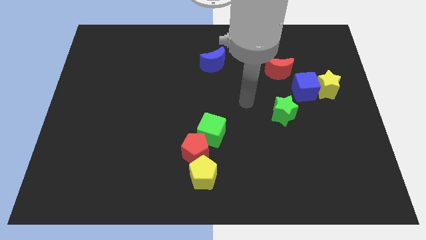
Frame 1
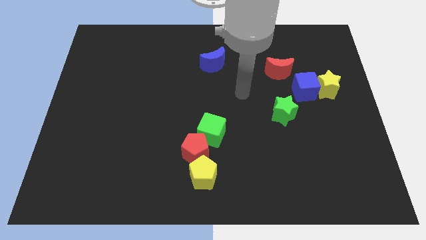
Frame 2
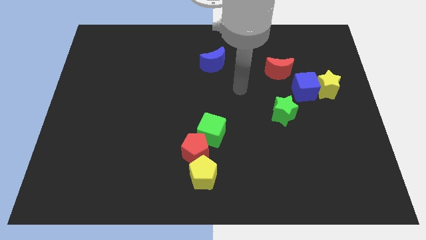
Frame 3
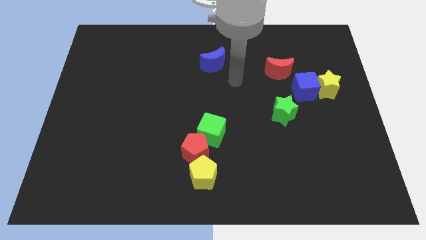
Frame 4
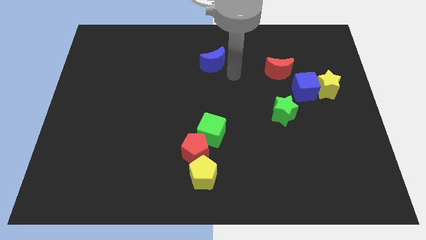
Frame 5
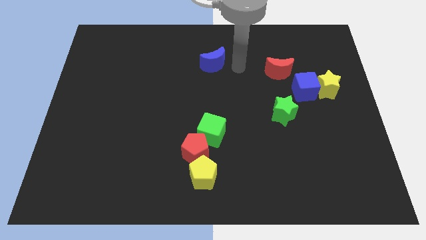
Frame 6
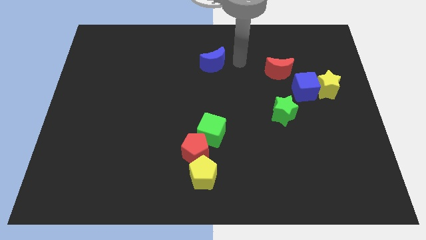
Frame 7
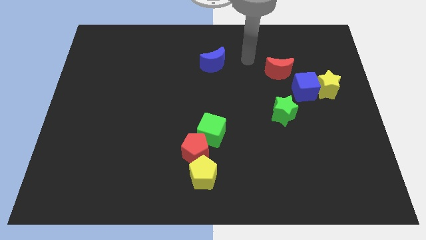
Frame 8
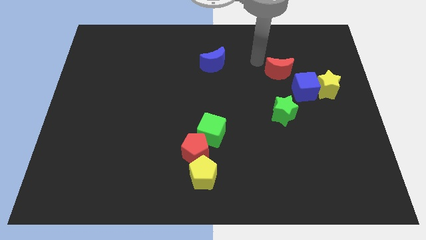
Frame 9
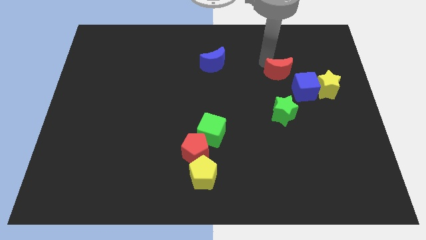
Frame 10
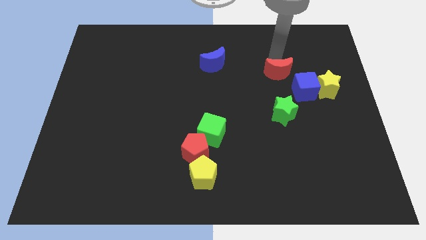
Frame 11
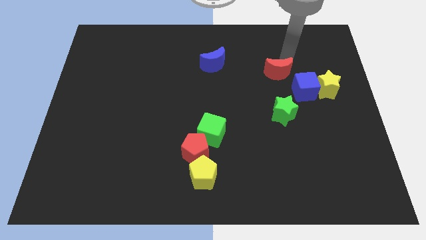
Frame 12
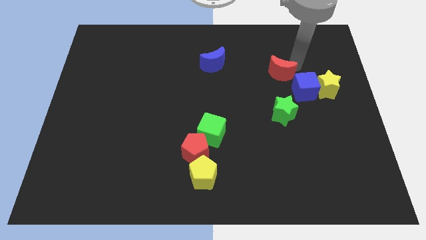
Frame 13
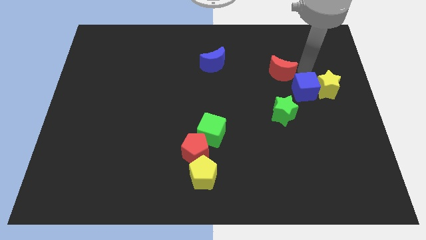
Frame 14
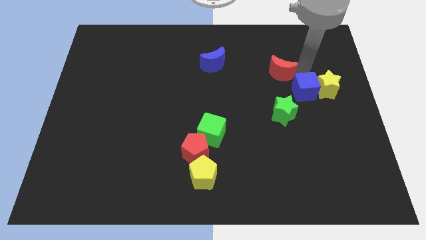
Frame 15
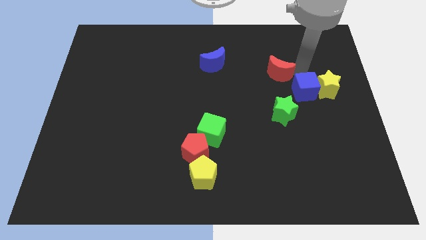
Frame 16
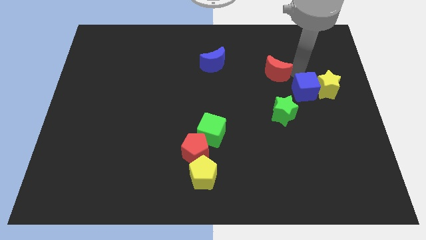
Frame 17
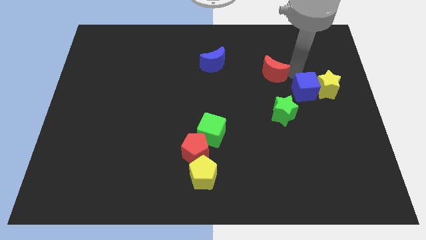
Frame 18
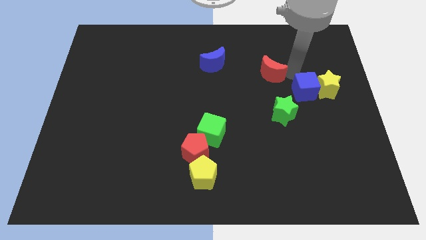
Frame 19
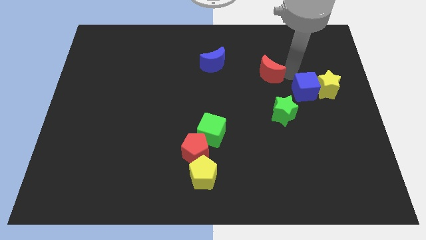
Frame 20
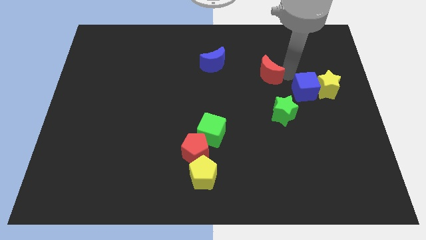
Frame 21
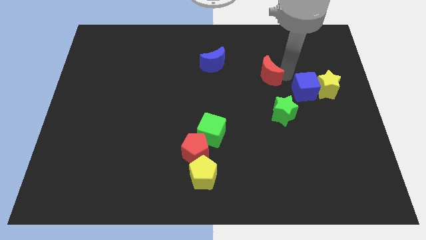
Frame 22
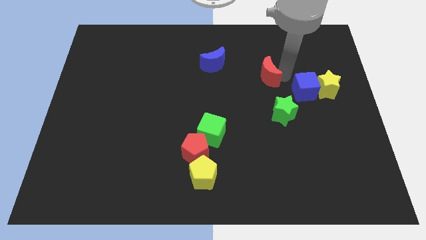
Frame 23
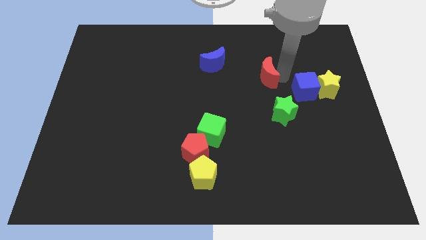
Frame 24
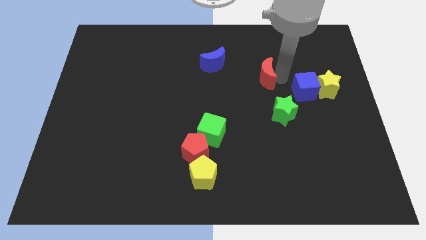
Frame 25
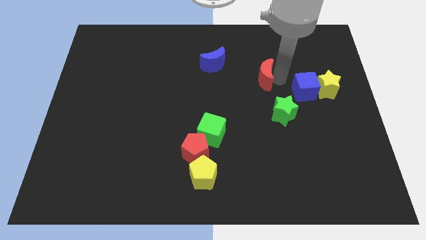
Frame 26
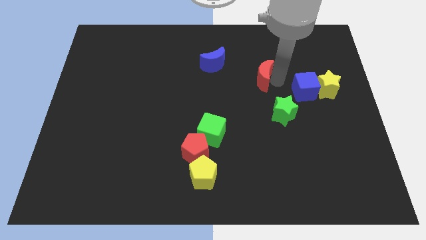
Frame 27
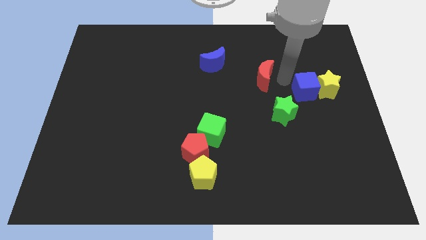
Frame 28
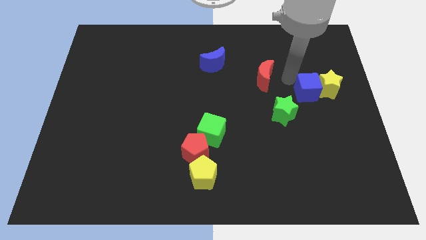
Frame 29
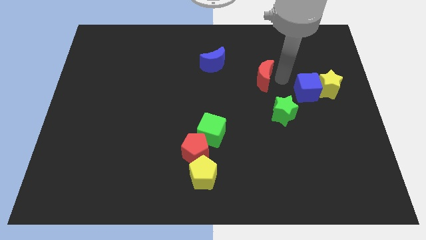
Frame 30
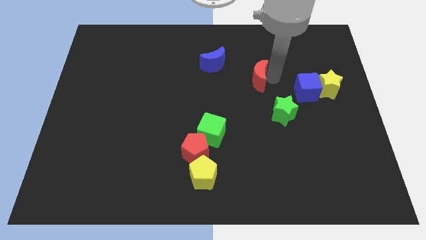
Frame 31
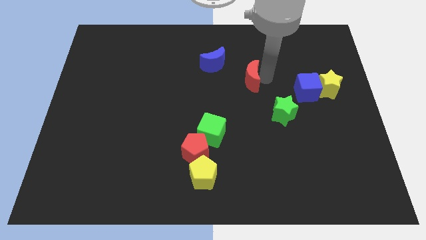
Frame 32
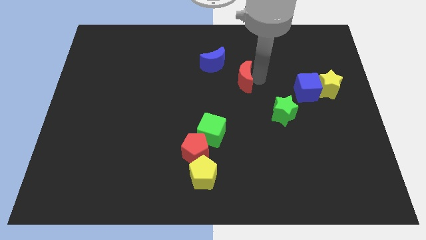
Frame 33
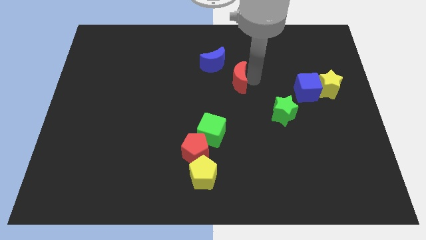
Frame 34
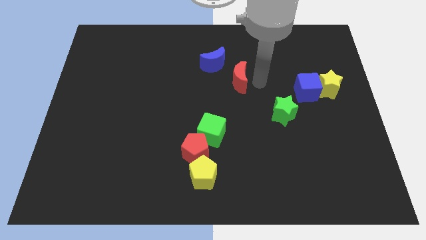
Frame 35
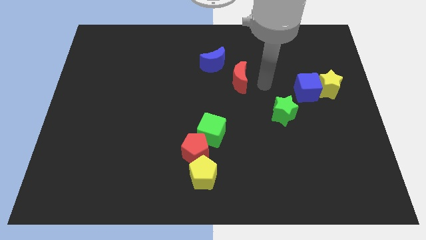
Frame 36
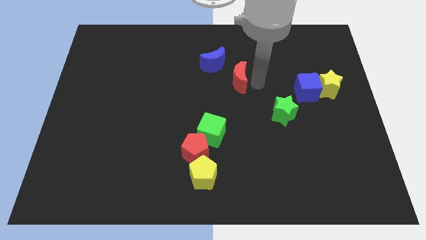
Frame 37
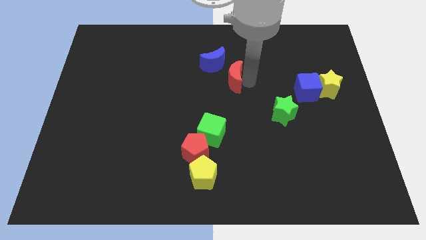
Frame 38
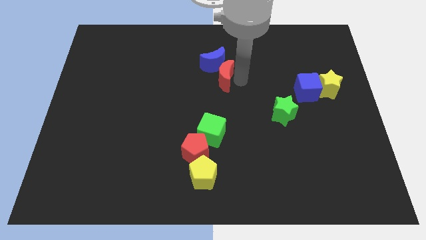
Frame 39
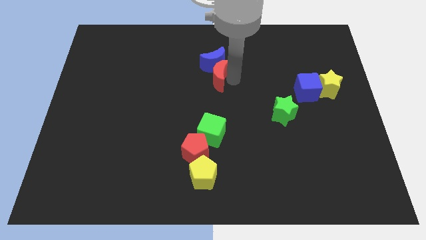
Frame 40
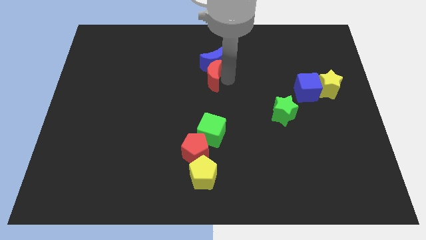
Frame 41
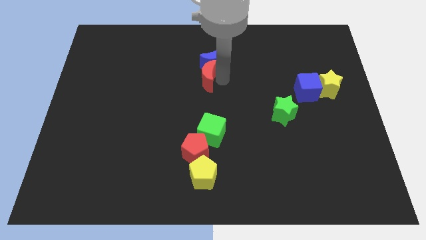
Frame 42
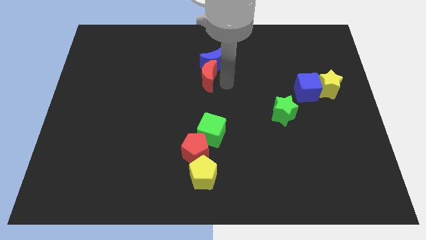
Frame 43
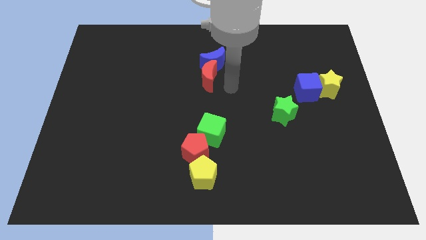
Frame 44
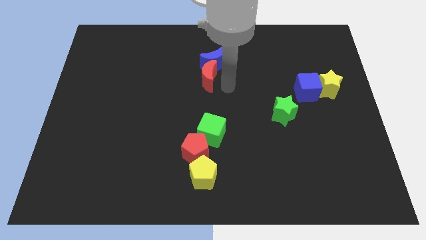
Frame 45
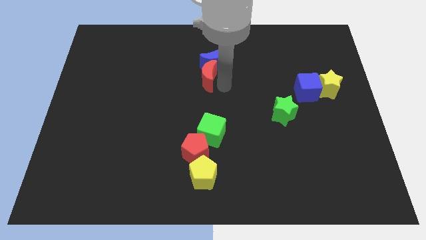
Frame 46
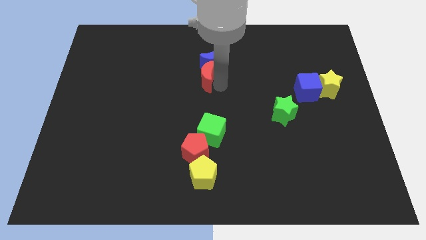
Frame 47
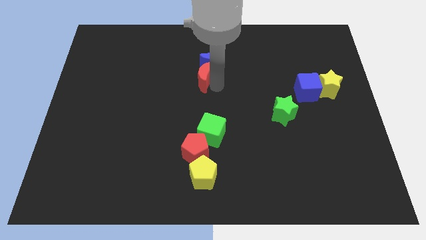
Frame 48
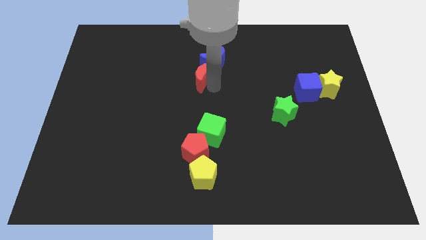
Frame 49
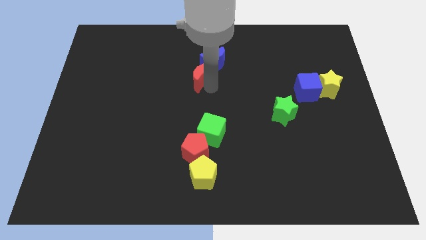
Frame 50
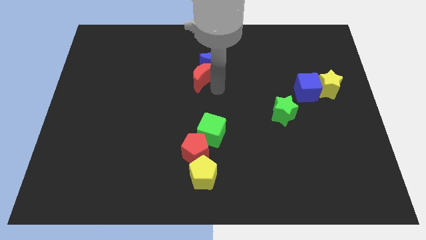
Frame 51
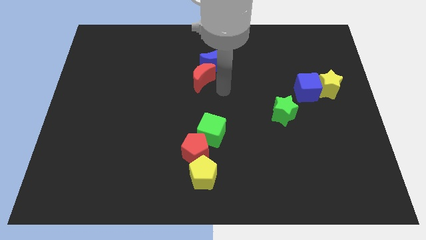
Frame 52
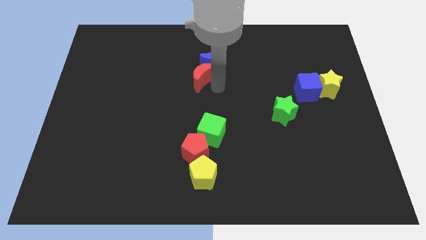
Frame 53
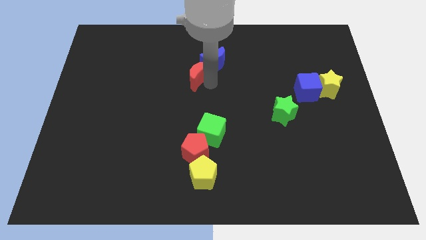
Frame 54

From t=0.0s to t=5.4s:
push the red moon left of the blue moon

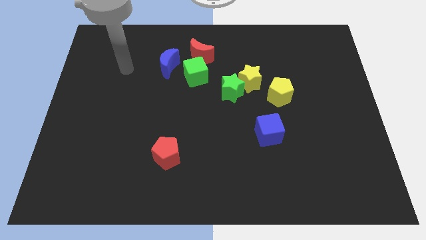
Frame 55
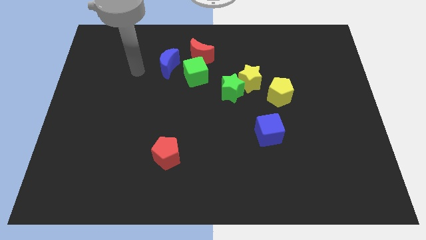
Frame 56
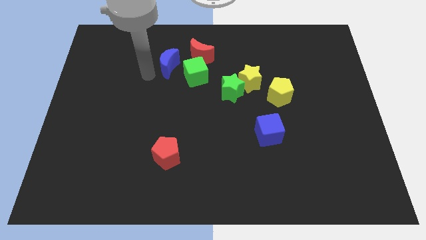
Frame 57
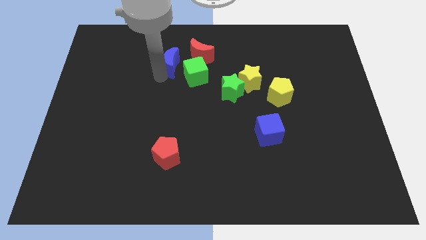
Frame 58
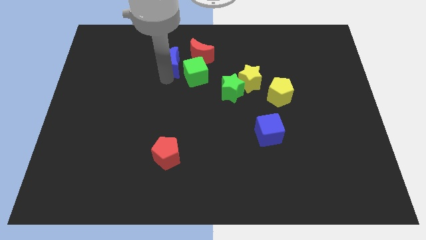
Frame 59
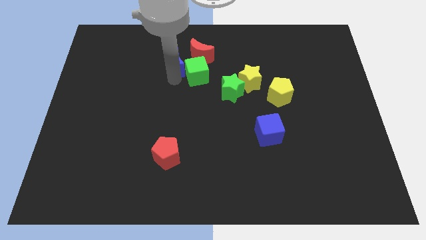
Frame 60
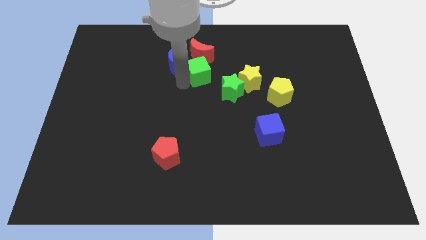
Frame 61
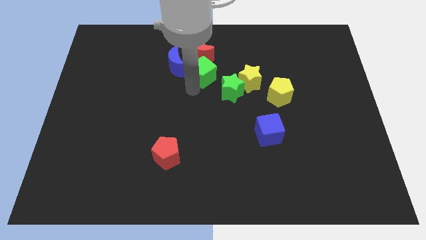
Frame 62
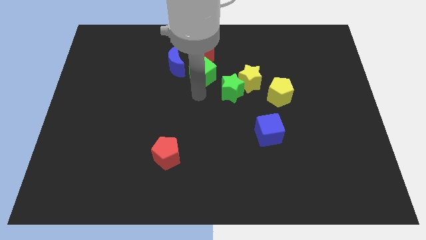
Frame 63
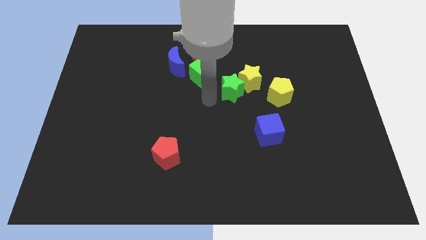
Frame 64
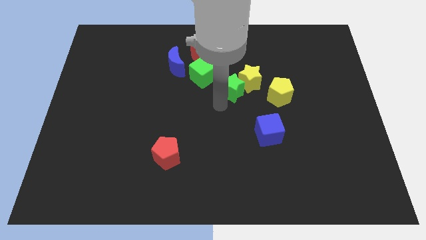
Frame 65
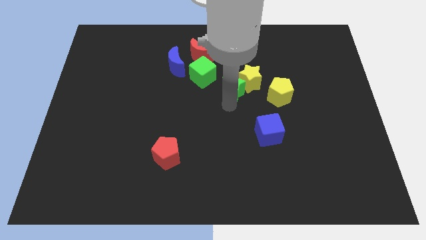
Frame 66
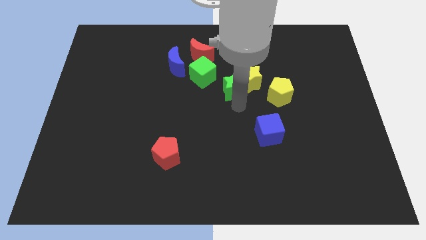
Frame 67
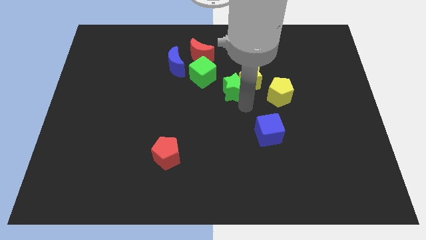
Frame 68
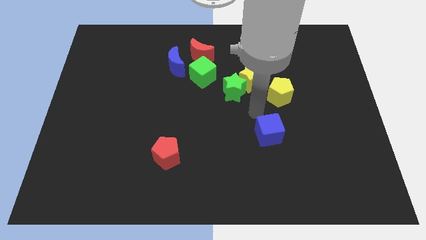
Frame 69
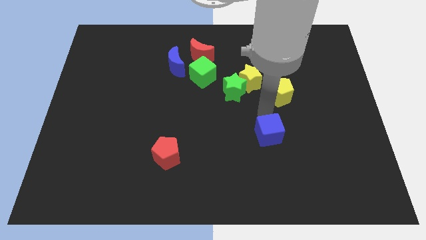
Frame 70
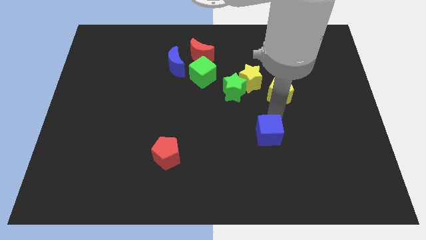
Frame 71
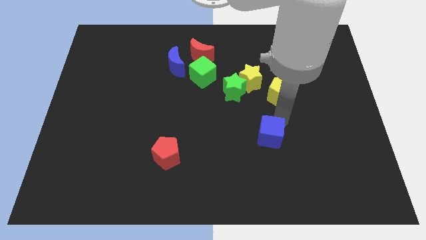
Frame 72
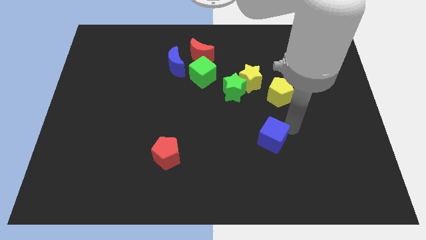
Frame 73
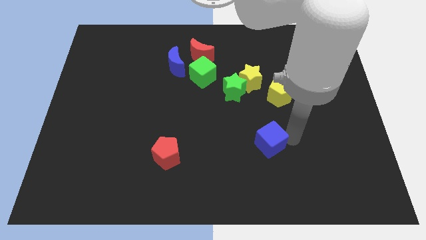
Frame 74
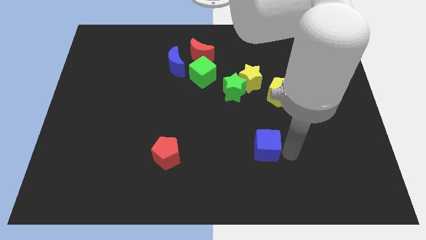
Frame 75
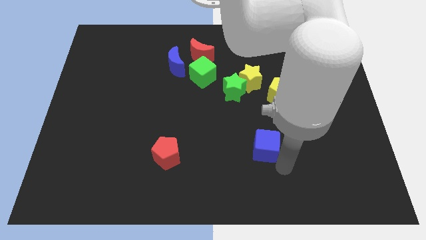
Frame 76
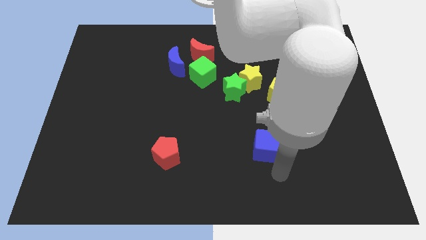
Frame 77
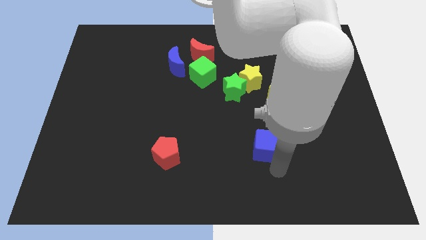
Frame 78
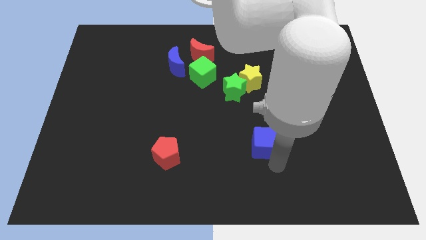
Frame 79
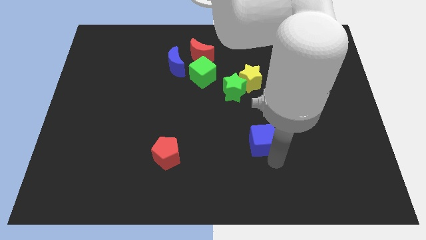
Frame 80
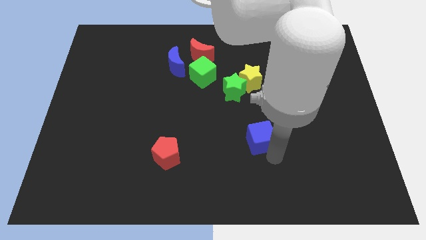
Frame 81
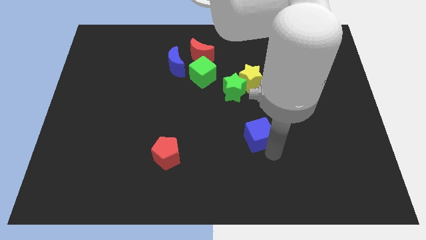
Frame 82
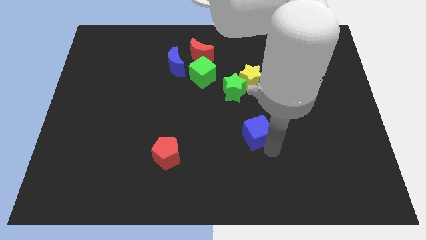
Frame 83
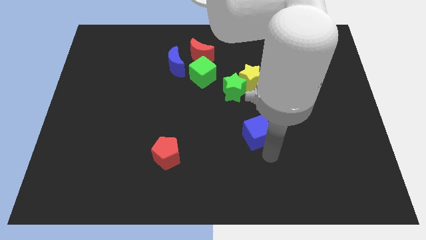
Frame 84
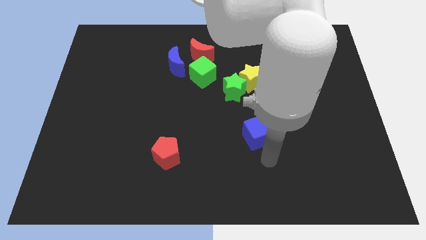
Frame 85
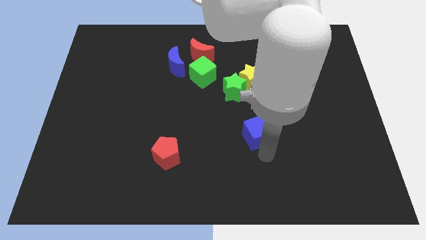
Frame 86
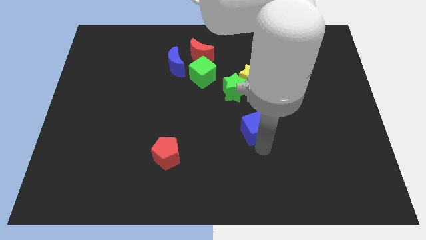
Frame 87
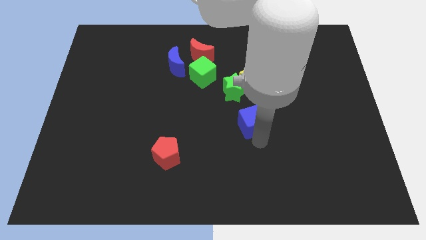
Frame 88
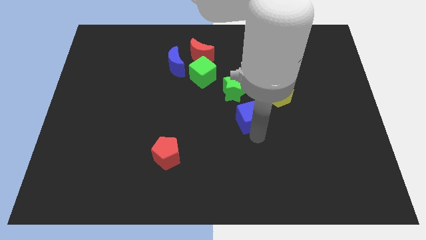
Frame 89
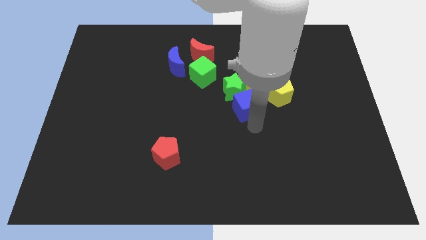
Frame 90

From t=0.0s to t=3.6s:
slide the blue cube left of the yellow pentagon
